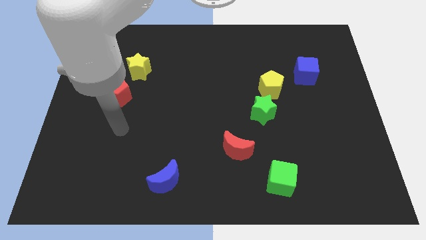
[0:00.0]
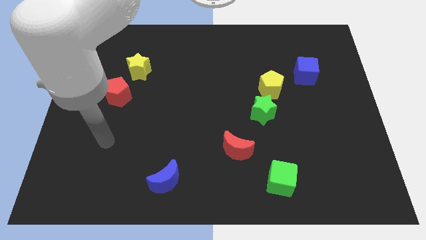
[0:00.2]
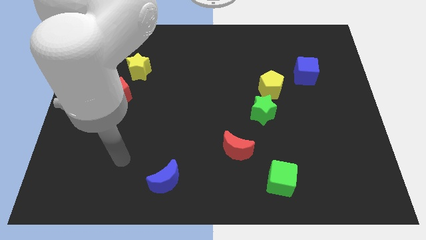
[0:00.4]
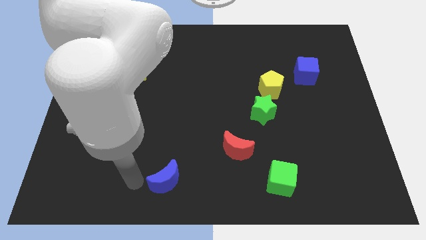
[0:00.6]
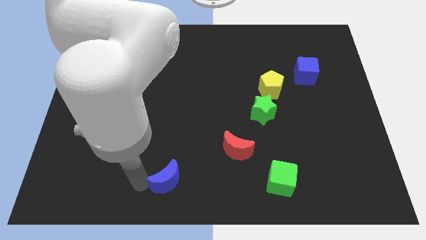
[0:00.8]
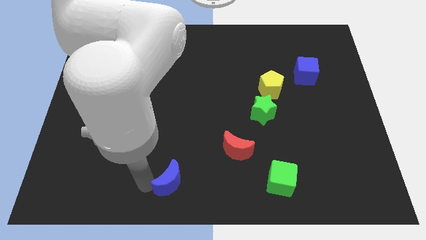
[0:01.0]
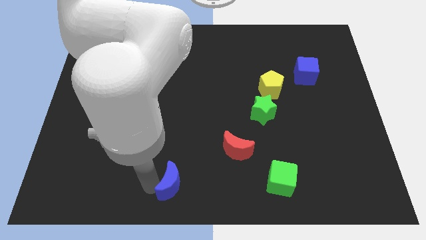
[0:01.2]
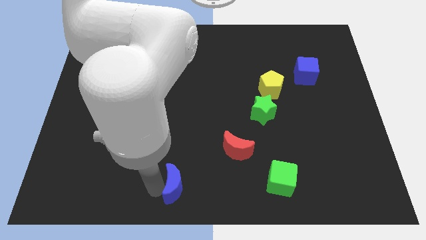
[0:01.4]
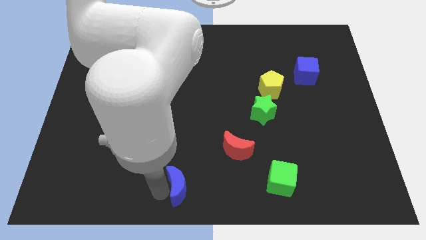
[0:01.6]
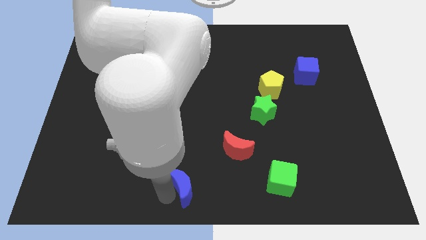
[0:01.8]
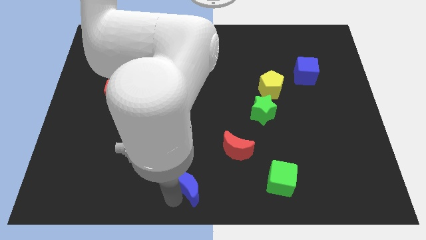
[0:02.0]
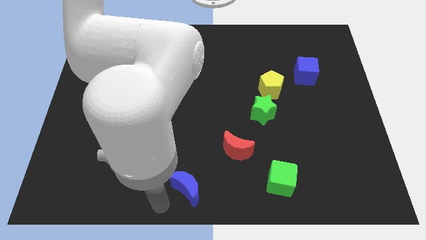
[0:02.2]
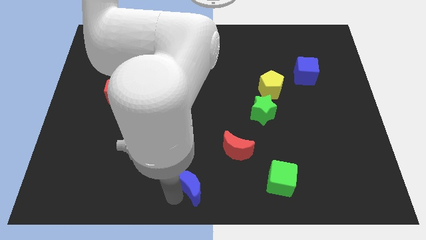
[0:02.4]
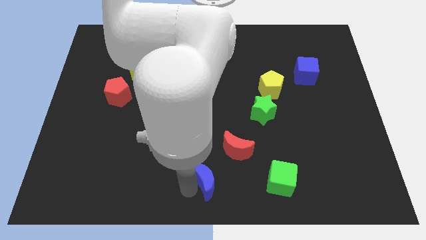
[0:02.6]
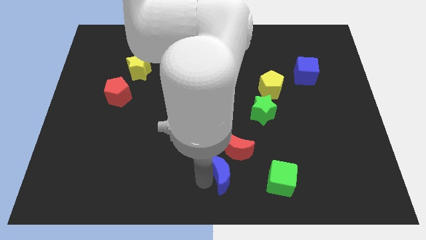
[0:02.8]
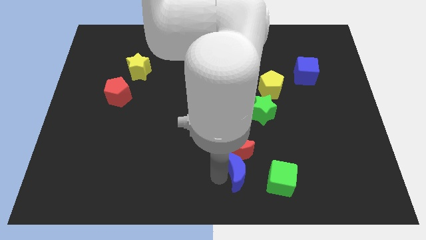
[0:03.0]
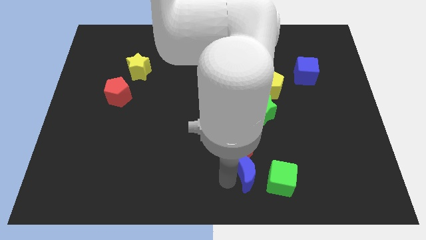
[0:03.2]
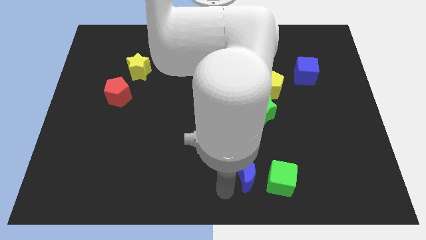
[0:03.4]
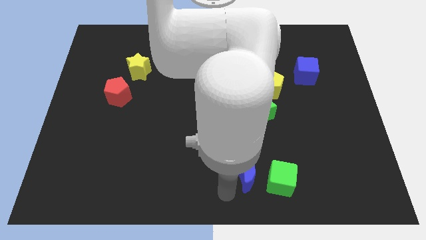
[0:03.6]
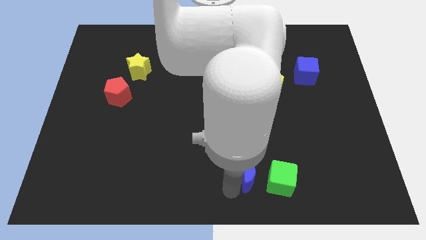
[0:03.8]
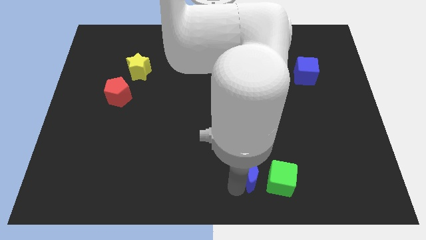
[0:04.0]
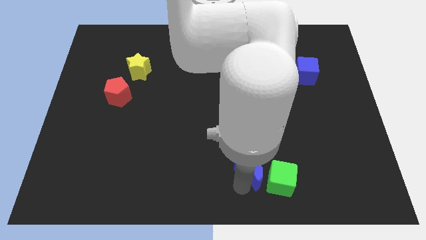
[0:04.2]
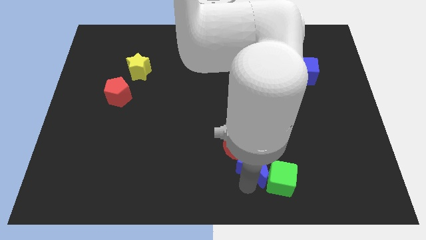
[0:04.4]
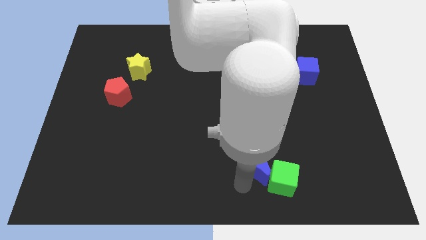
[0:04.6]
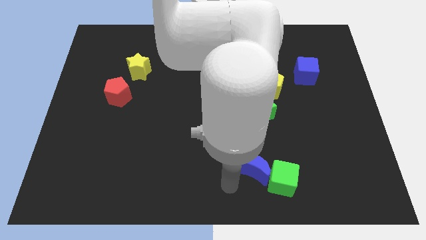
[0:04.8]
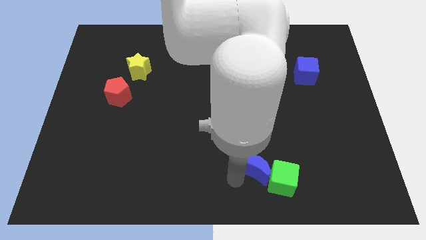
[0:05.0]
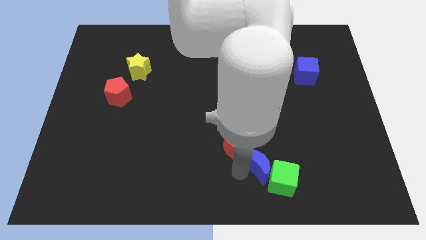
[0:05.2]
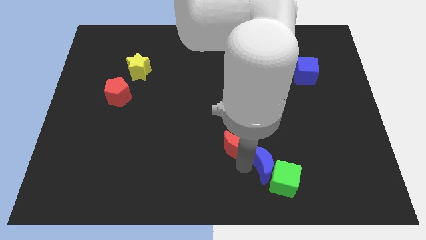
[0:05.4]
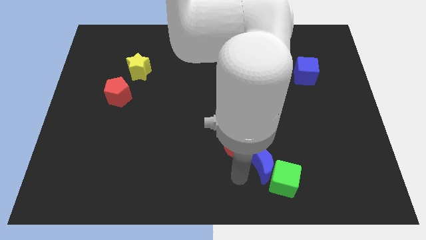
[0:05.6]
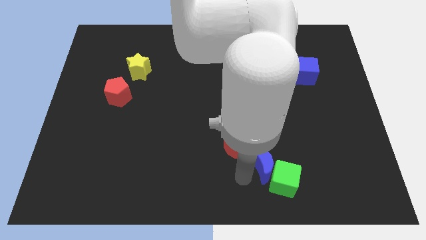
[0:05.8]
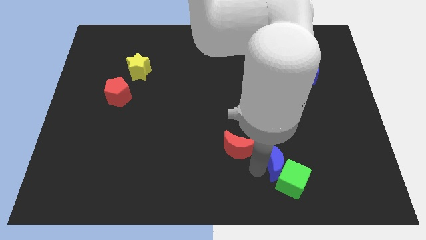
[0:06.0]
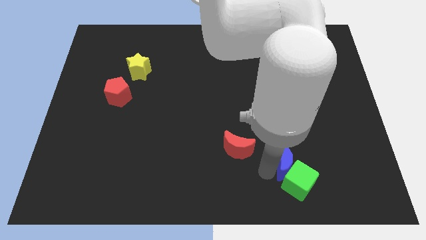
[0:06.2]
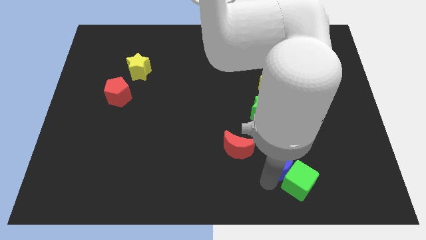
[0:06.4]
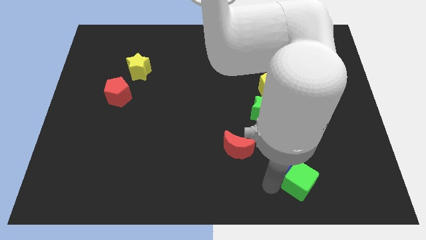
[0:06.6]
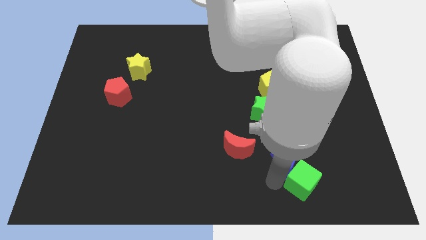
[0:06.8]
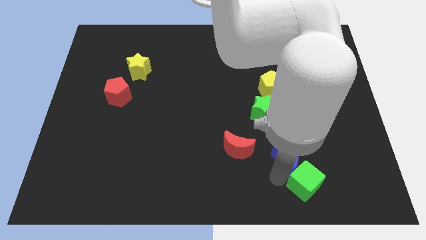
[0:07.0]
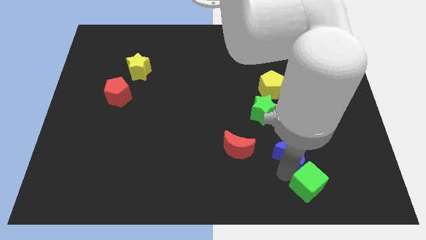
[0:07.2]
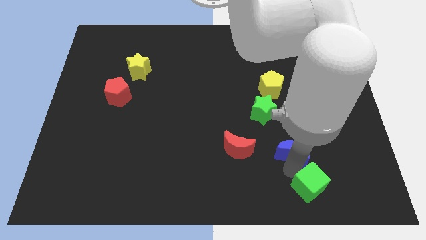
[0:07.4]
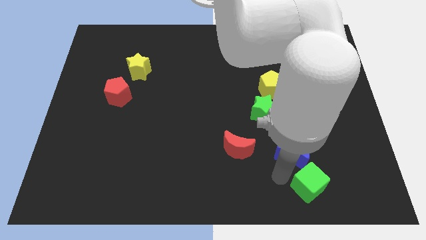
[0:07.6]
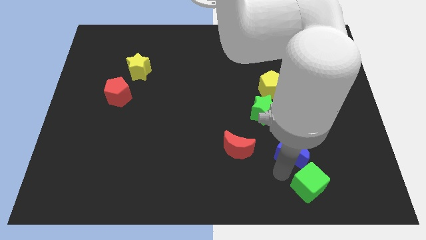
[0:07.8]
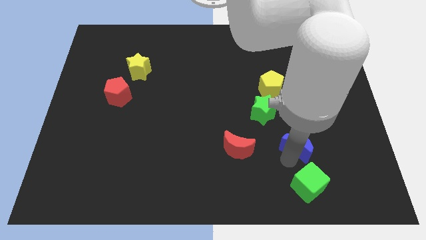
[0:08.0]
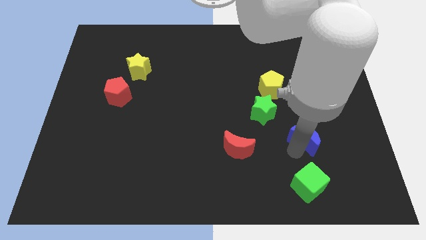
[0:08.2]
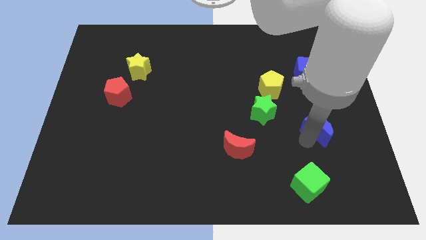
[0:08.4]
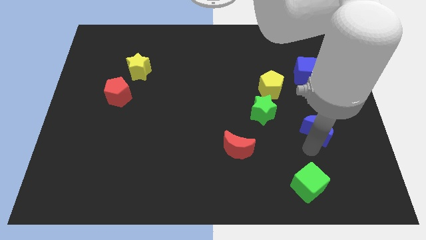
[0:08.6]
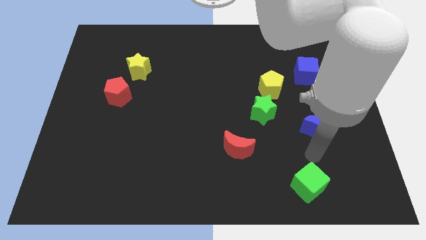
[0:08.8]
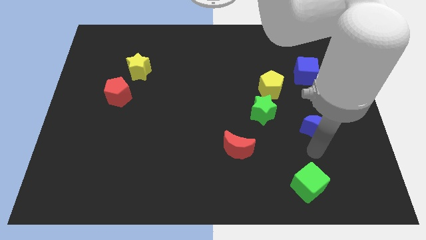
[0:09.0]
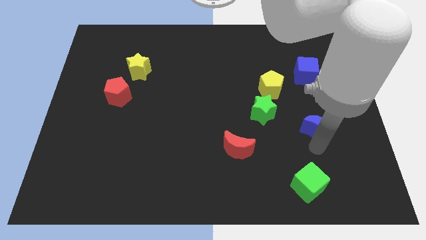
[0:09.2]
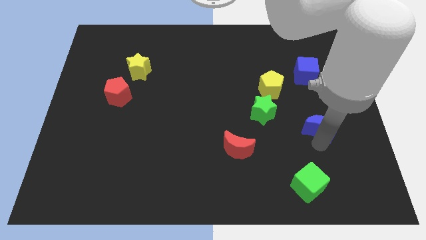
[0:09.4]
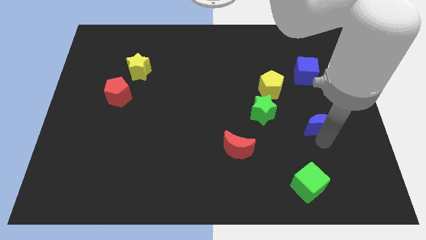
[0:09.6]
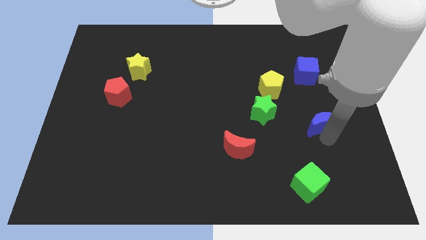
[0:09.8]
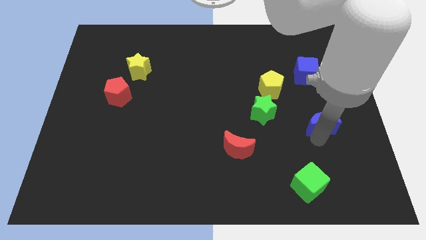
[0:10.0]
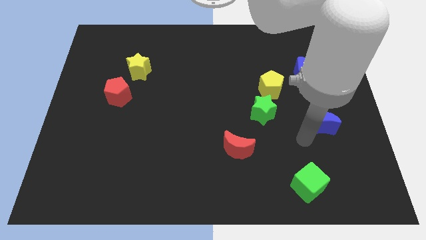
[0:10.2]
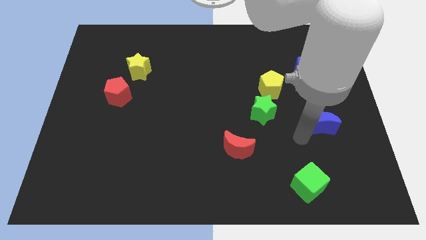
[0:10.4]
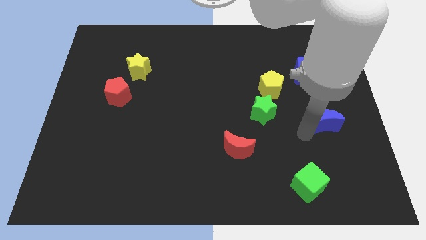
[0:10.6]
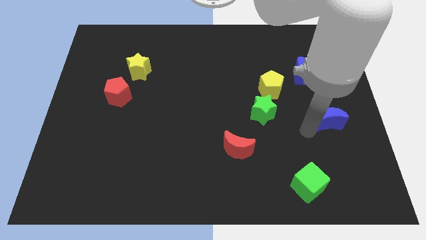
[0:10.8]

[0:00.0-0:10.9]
put the blue moon to the right side

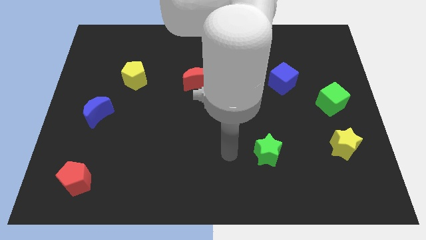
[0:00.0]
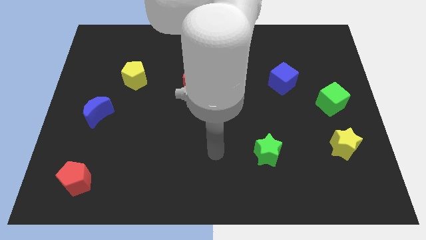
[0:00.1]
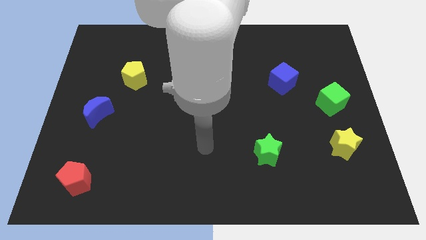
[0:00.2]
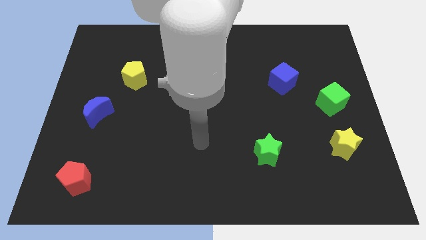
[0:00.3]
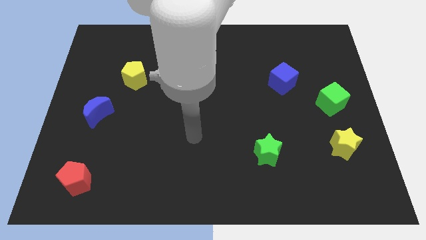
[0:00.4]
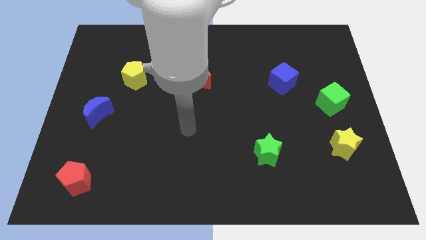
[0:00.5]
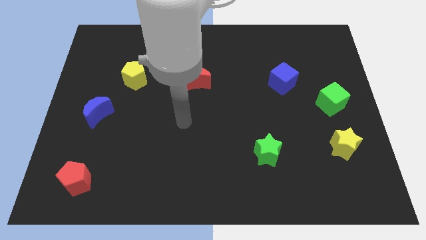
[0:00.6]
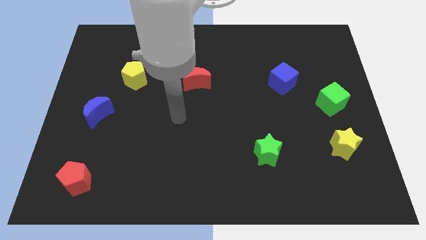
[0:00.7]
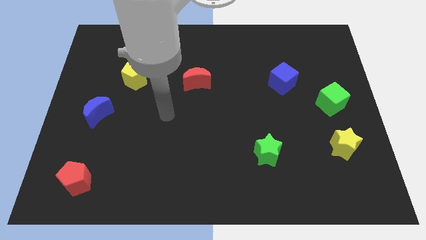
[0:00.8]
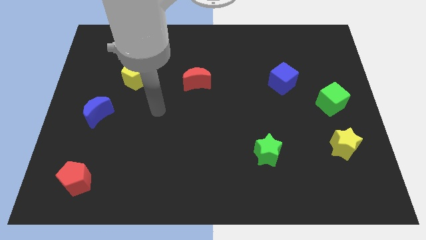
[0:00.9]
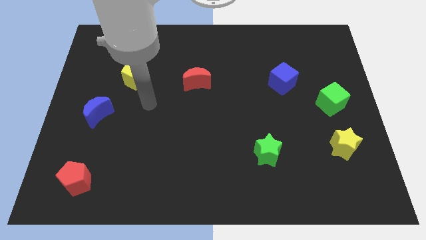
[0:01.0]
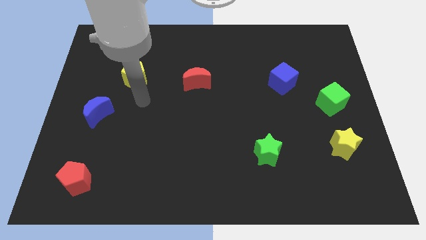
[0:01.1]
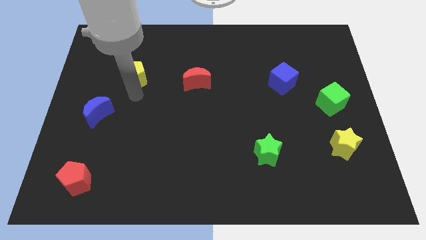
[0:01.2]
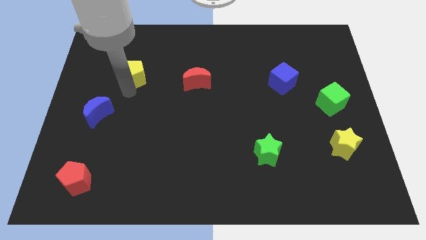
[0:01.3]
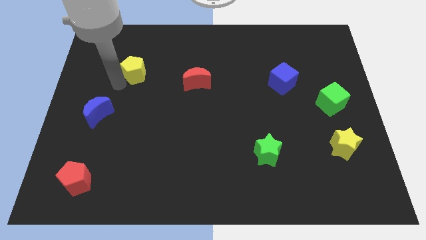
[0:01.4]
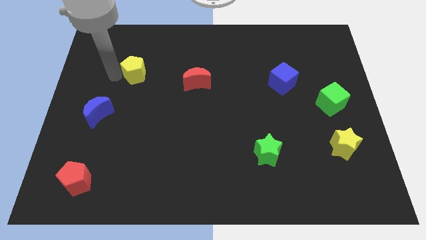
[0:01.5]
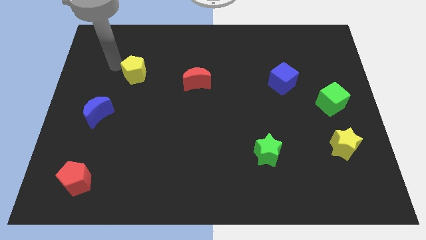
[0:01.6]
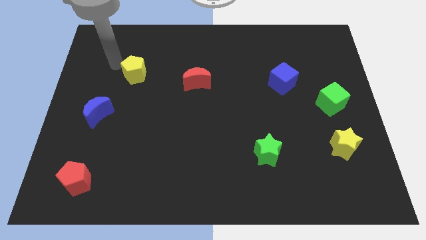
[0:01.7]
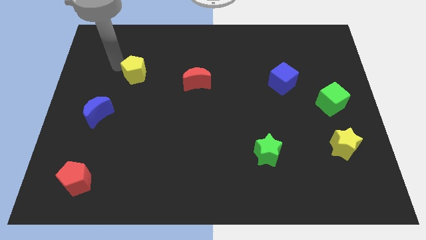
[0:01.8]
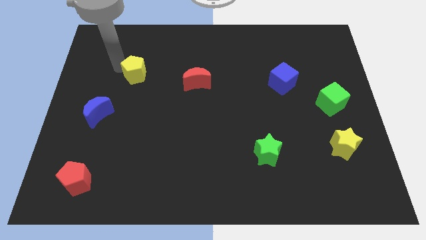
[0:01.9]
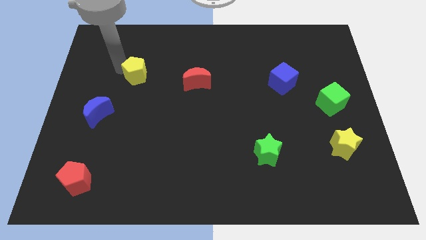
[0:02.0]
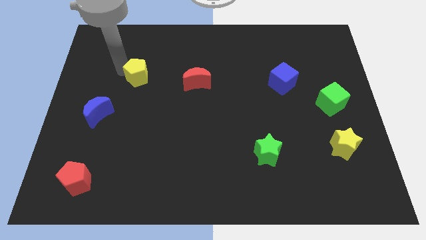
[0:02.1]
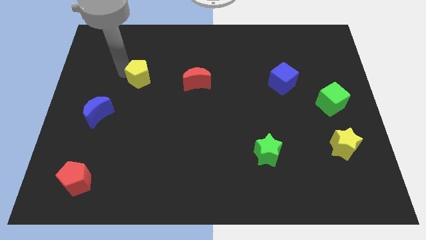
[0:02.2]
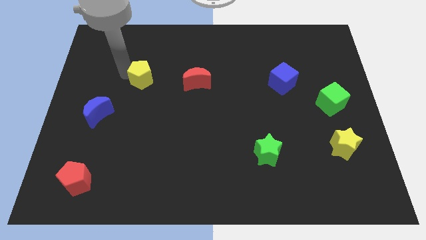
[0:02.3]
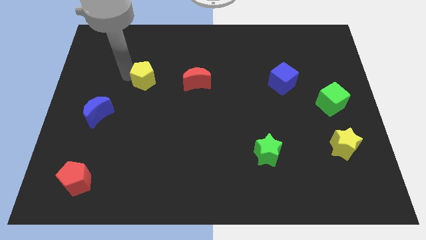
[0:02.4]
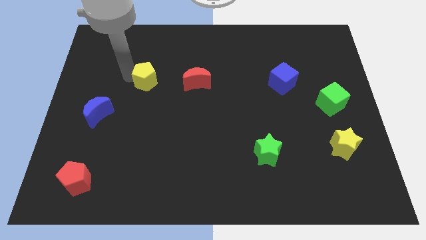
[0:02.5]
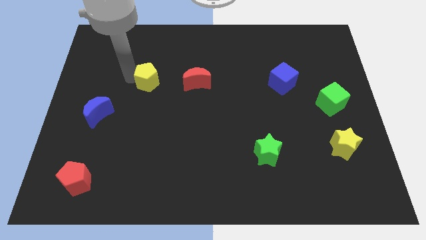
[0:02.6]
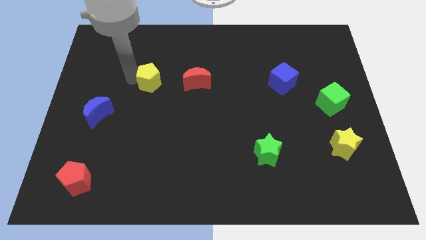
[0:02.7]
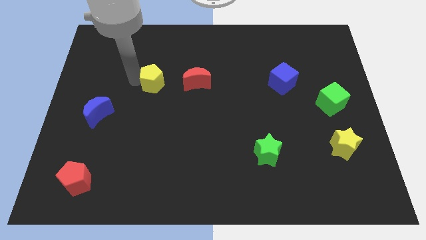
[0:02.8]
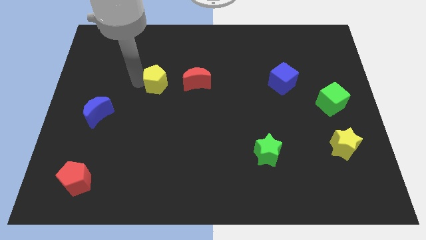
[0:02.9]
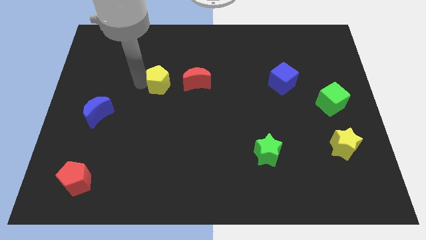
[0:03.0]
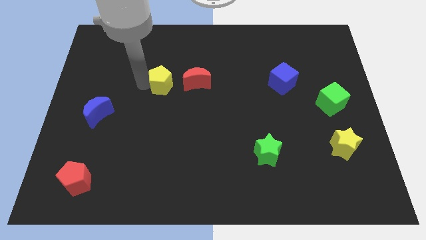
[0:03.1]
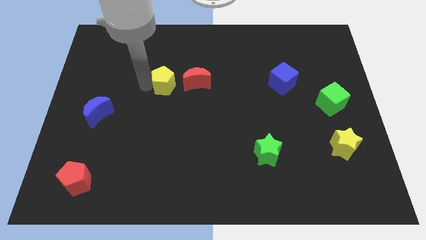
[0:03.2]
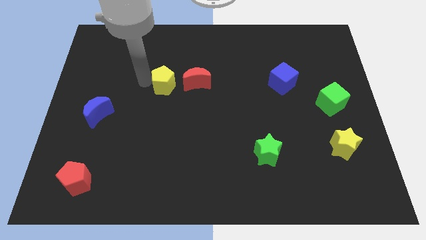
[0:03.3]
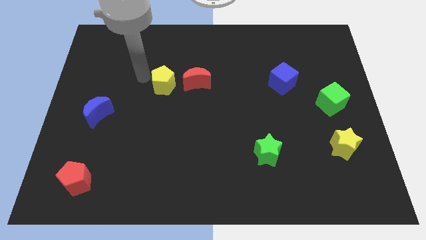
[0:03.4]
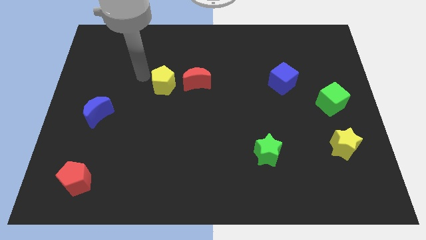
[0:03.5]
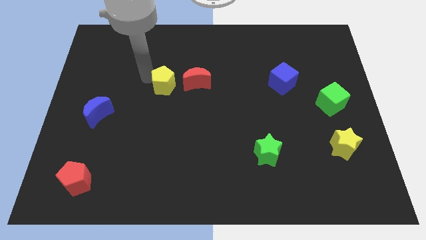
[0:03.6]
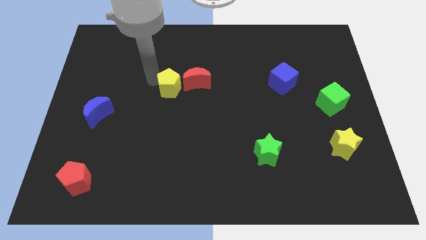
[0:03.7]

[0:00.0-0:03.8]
put the yellow pentagon to the center of the board
